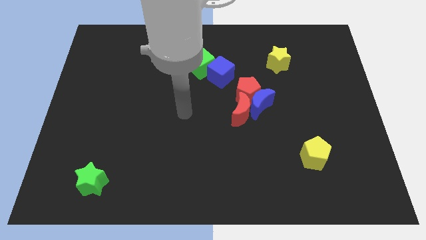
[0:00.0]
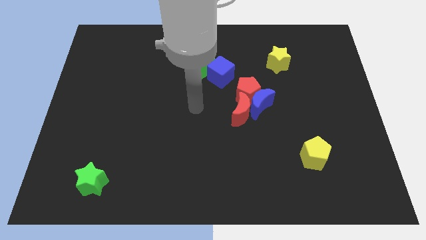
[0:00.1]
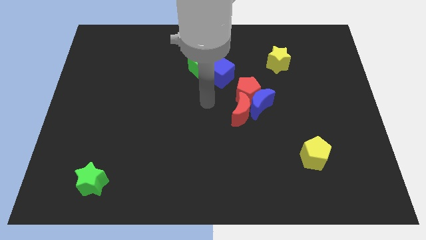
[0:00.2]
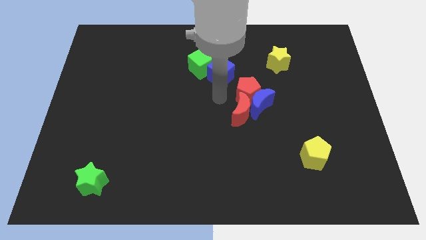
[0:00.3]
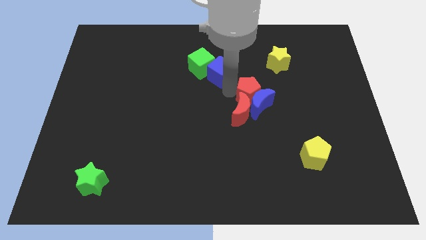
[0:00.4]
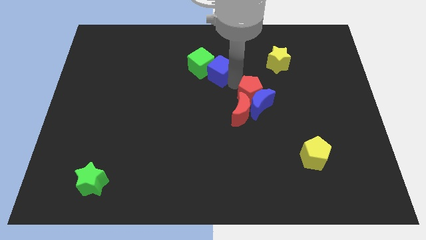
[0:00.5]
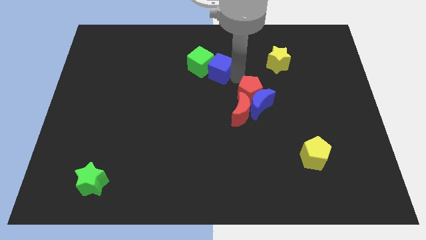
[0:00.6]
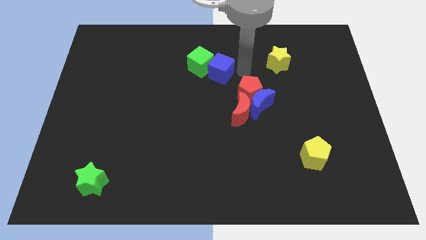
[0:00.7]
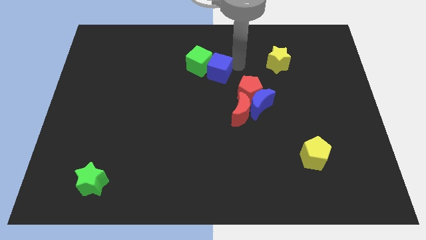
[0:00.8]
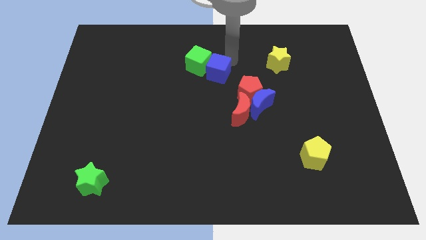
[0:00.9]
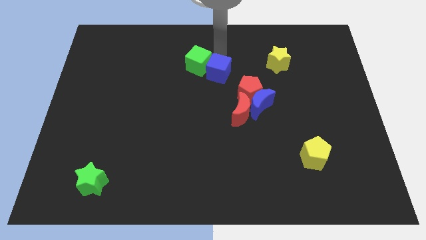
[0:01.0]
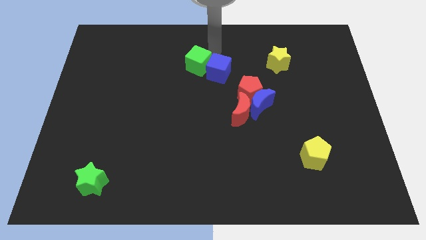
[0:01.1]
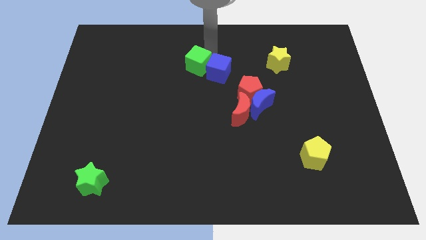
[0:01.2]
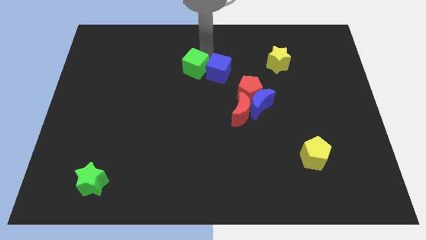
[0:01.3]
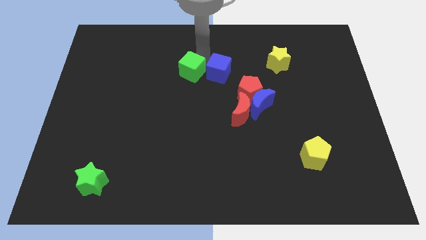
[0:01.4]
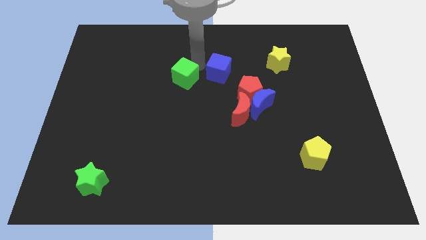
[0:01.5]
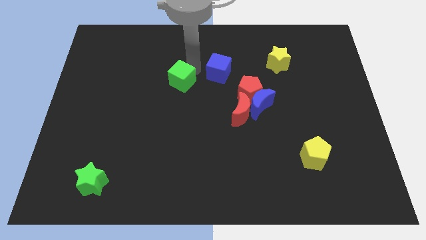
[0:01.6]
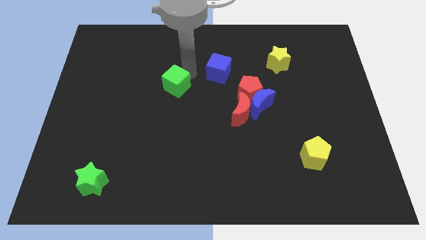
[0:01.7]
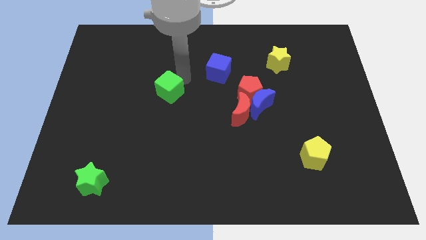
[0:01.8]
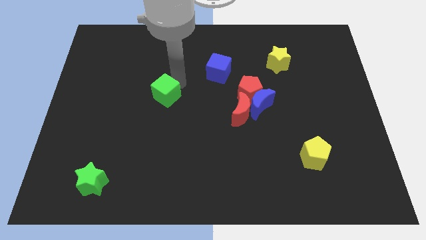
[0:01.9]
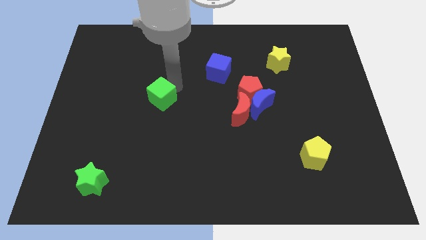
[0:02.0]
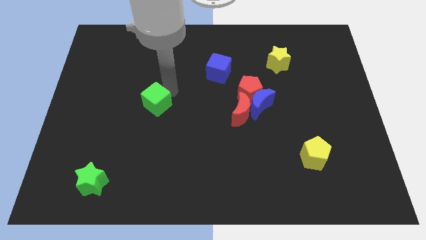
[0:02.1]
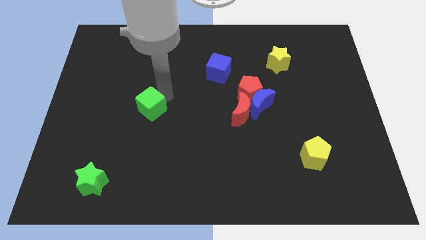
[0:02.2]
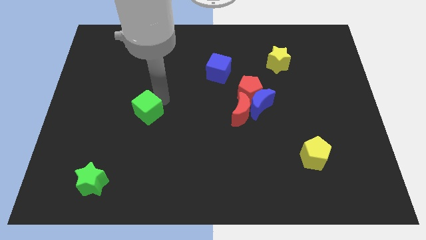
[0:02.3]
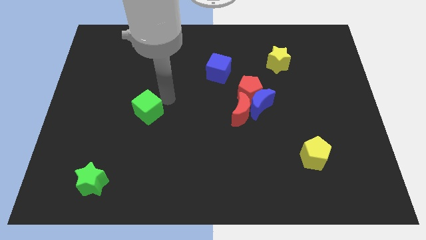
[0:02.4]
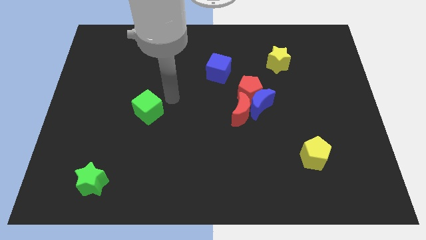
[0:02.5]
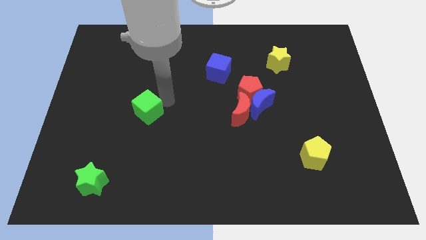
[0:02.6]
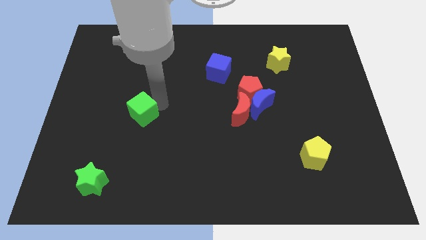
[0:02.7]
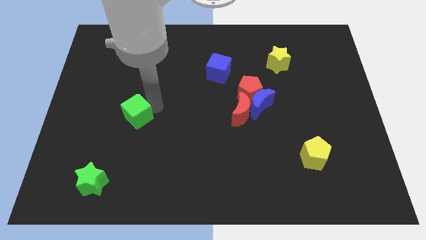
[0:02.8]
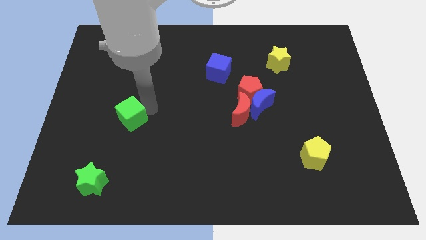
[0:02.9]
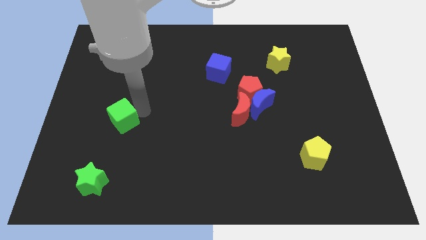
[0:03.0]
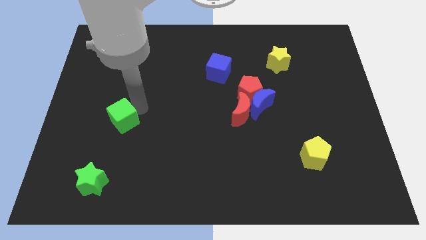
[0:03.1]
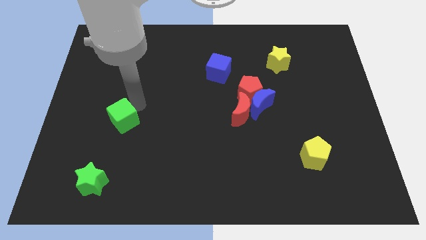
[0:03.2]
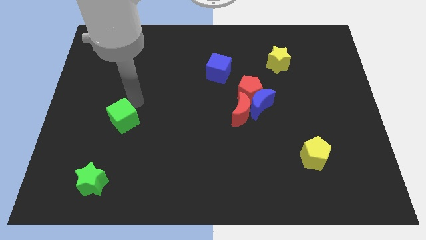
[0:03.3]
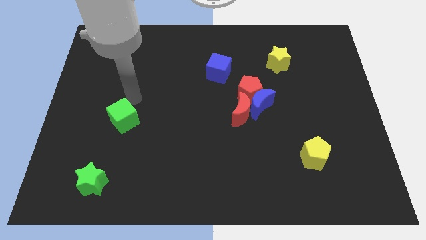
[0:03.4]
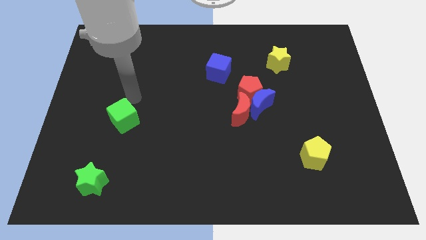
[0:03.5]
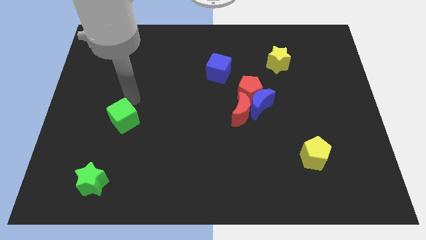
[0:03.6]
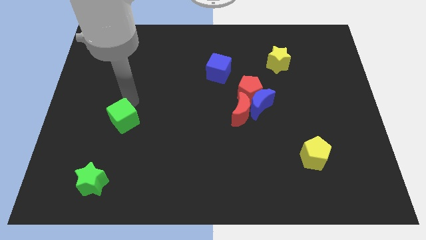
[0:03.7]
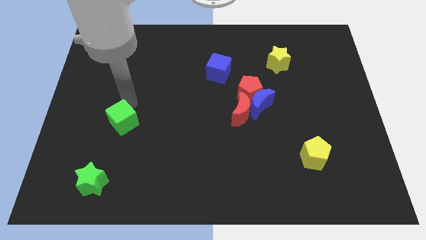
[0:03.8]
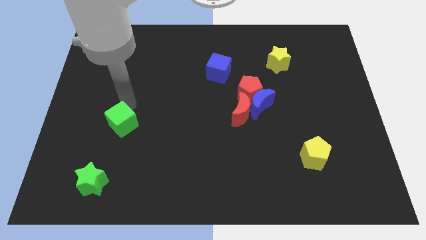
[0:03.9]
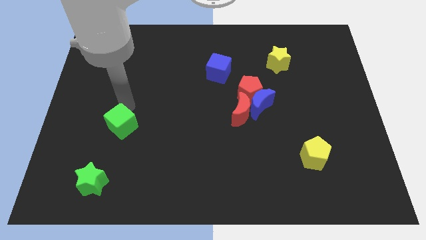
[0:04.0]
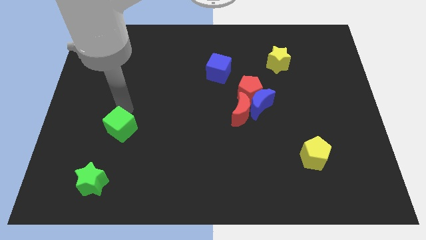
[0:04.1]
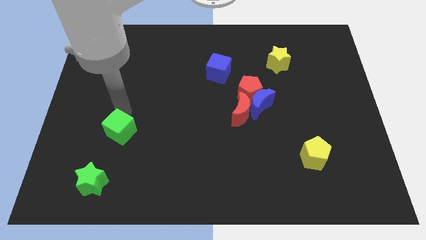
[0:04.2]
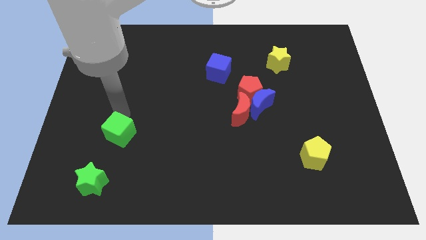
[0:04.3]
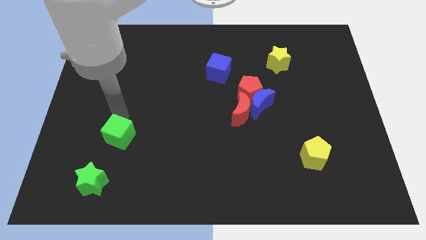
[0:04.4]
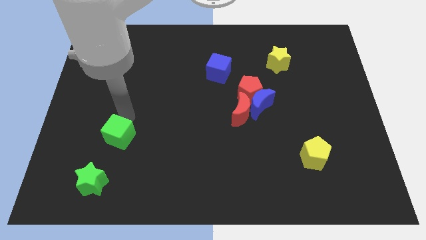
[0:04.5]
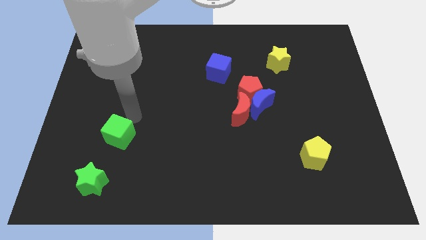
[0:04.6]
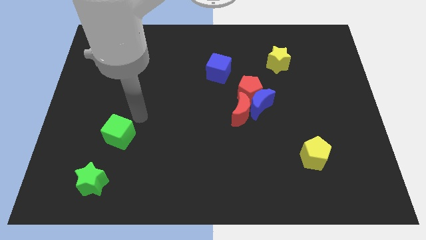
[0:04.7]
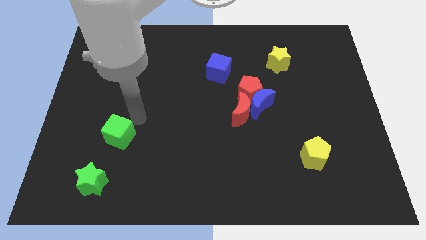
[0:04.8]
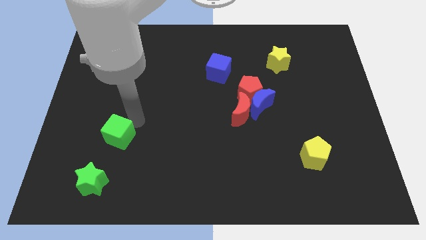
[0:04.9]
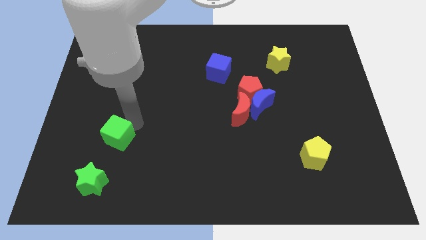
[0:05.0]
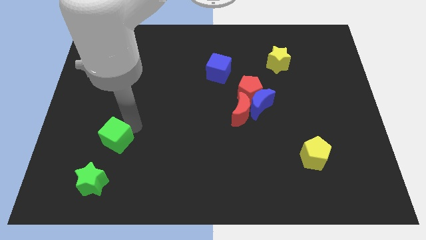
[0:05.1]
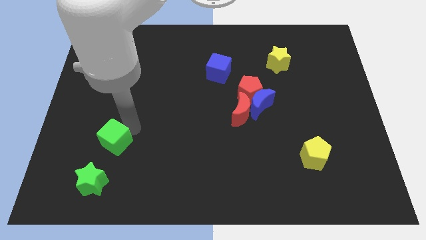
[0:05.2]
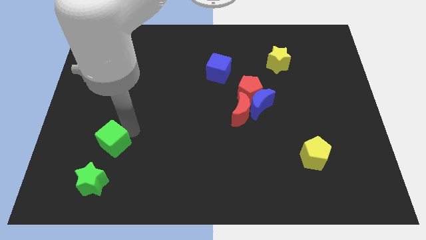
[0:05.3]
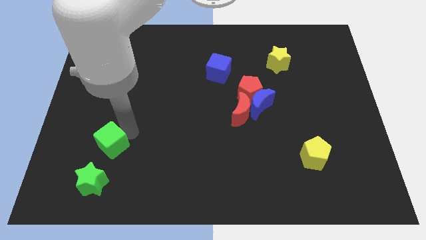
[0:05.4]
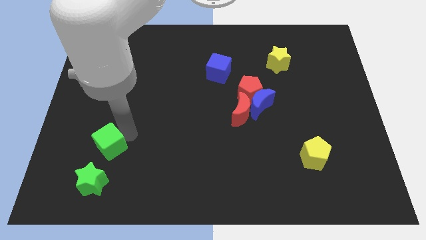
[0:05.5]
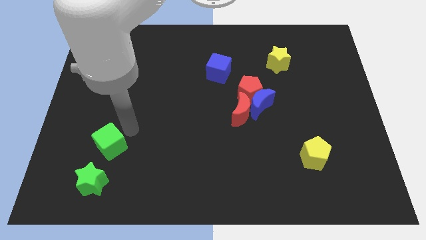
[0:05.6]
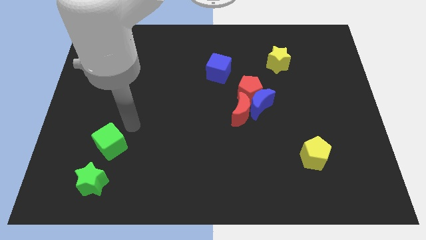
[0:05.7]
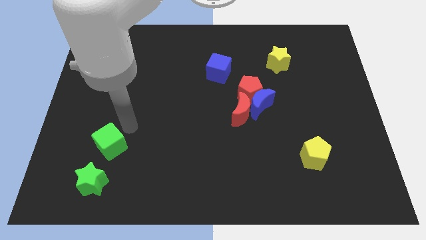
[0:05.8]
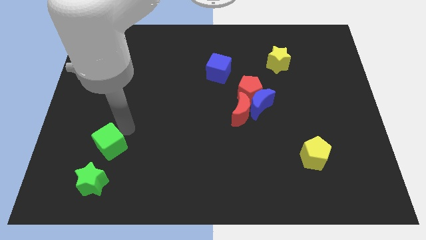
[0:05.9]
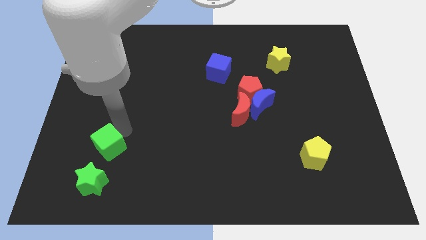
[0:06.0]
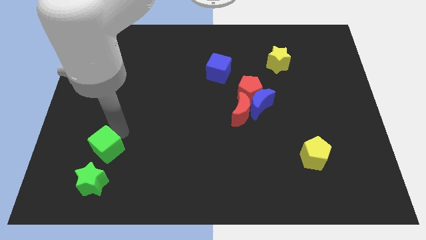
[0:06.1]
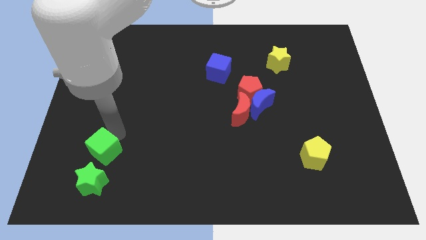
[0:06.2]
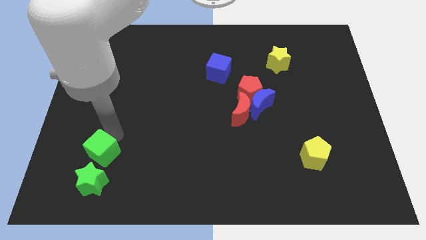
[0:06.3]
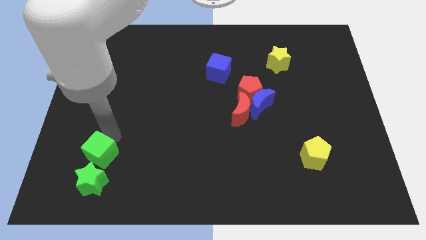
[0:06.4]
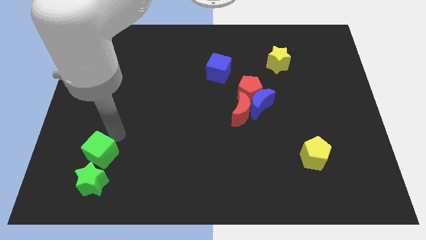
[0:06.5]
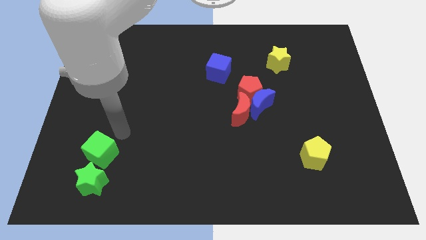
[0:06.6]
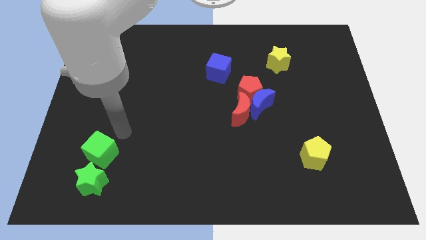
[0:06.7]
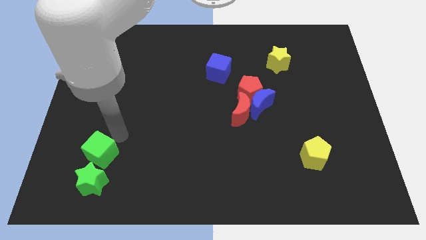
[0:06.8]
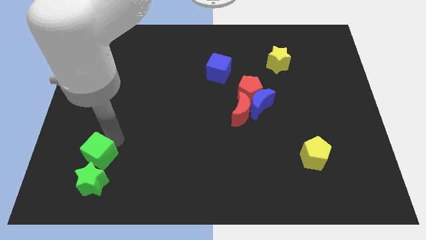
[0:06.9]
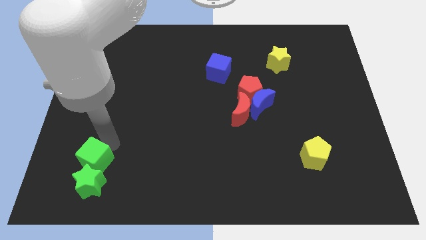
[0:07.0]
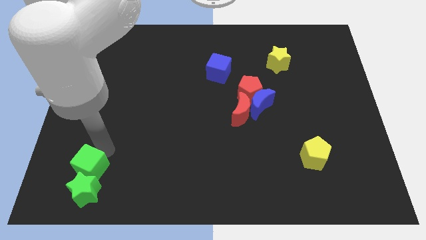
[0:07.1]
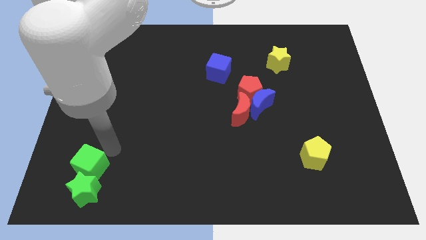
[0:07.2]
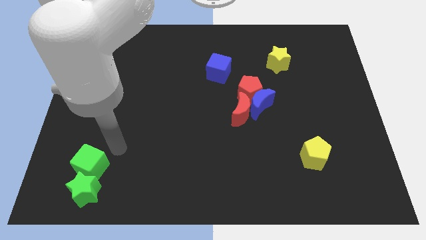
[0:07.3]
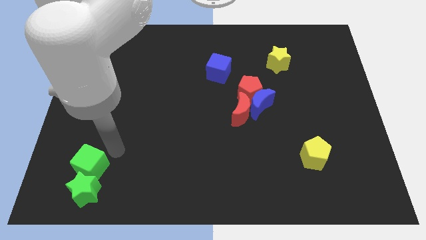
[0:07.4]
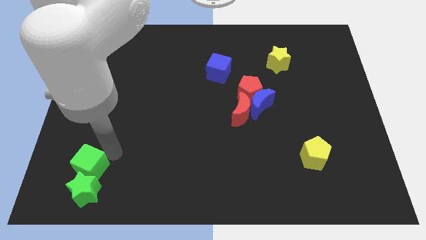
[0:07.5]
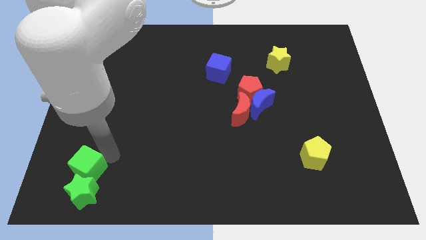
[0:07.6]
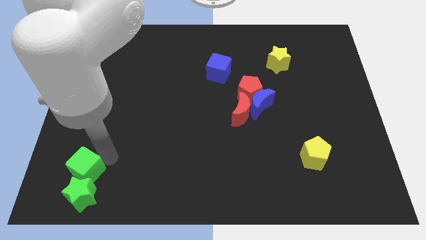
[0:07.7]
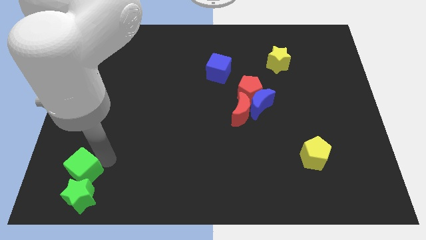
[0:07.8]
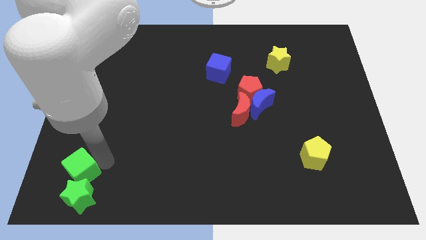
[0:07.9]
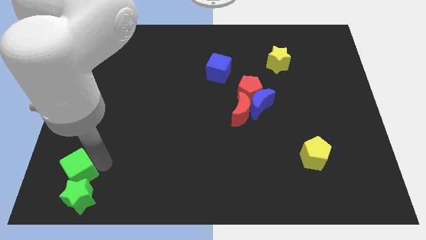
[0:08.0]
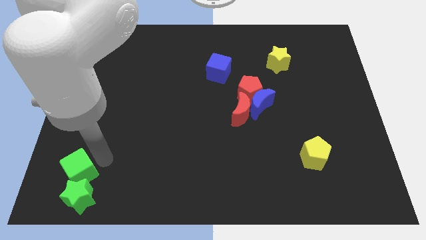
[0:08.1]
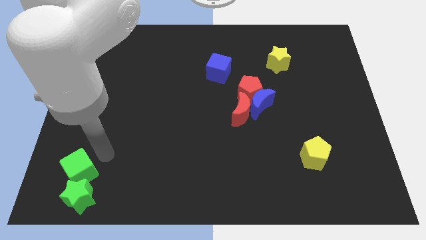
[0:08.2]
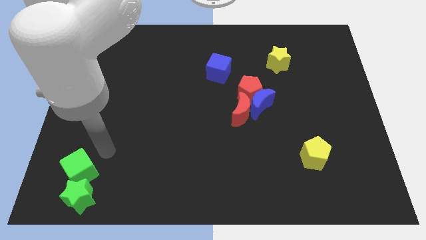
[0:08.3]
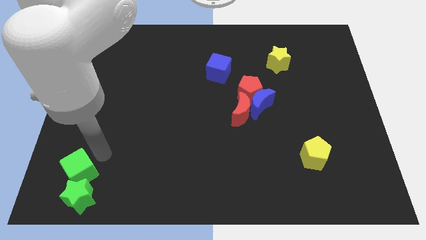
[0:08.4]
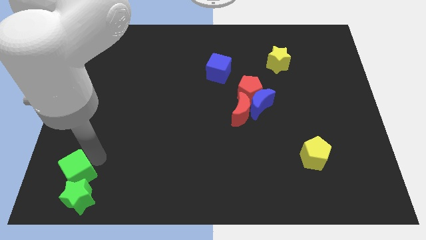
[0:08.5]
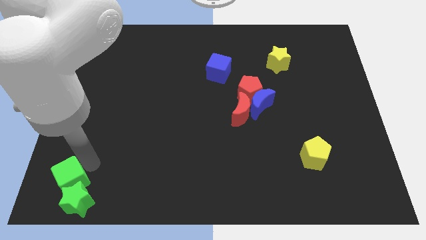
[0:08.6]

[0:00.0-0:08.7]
slide the green cube to the bottom left of the board
